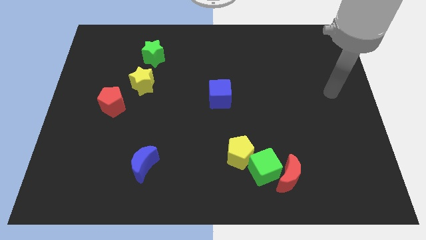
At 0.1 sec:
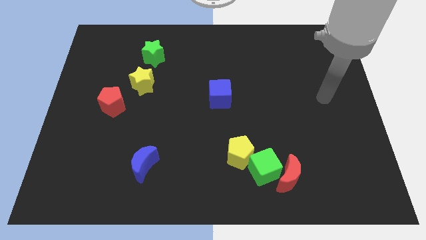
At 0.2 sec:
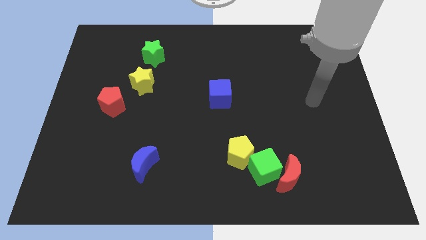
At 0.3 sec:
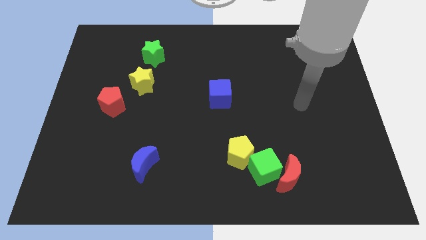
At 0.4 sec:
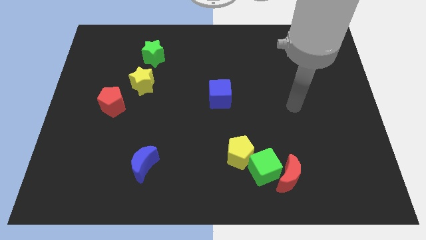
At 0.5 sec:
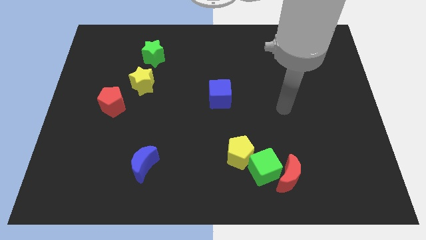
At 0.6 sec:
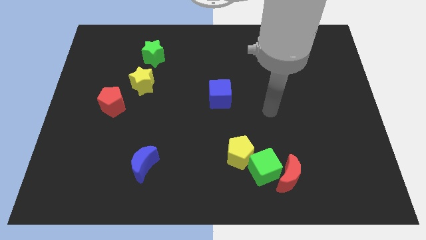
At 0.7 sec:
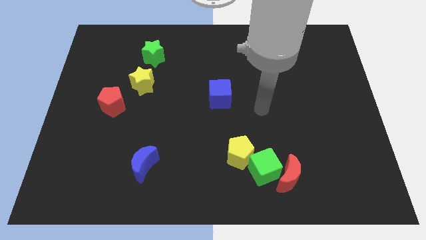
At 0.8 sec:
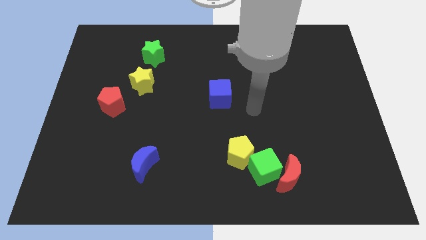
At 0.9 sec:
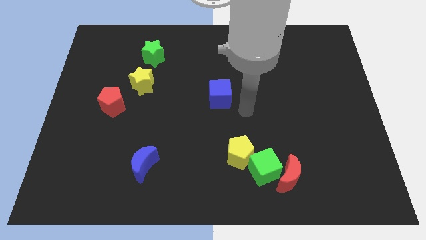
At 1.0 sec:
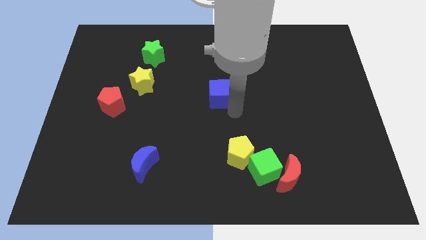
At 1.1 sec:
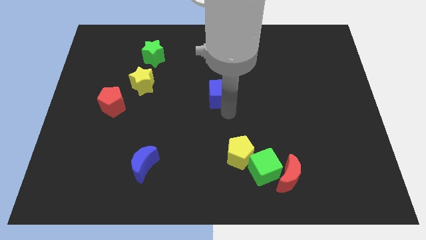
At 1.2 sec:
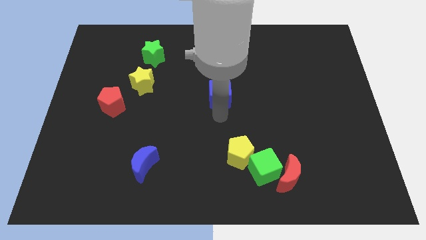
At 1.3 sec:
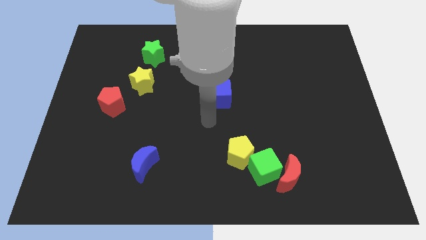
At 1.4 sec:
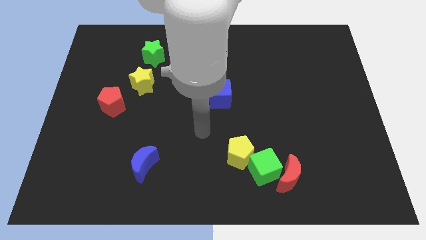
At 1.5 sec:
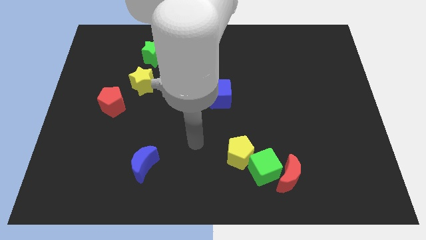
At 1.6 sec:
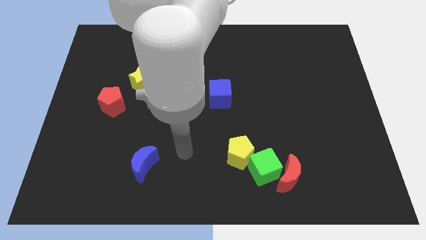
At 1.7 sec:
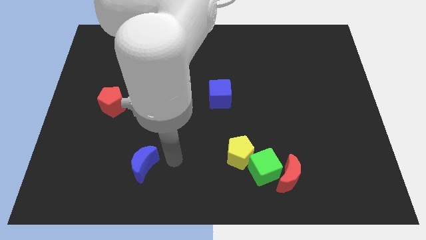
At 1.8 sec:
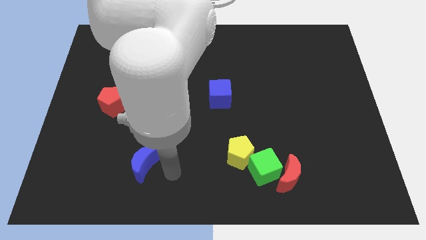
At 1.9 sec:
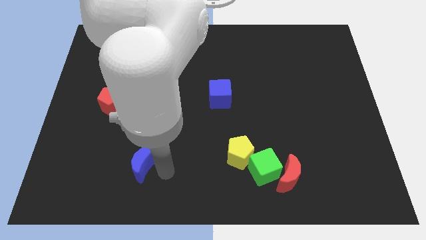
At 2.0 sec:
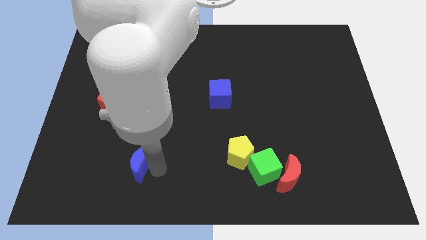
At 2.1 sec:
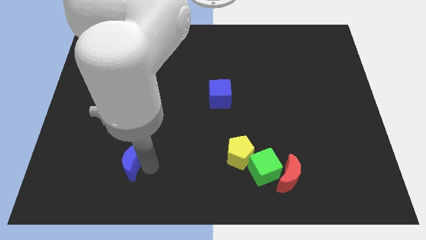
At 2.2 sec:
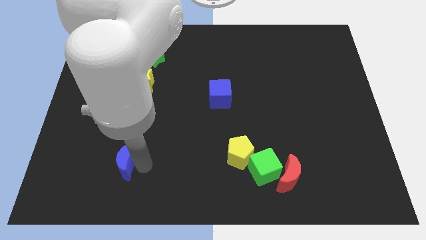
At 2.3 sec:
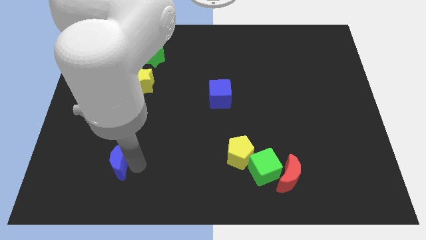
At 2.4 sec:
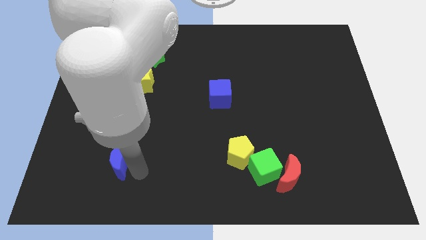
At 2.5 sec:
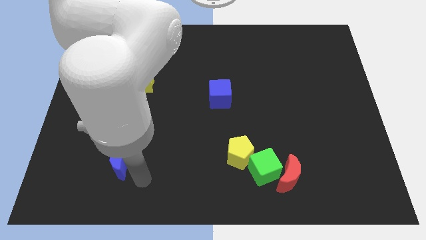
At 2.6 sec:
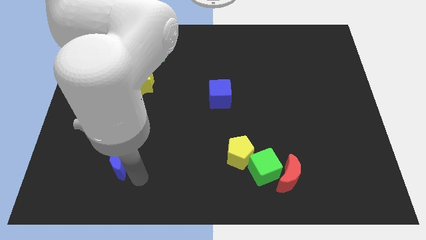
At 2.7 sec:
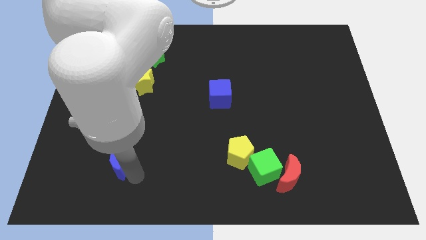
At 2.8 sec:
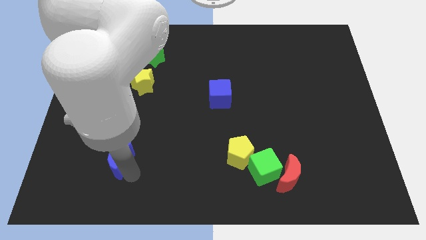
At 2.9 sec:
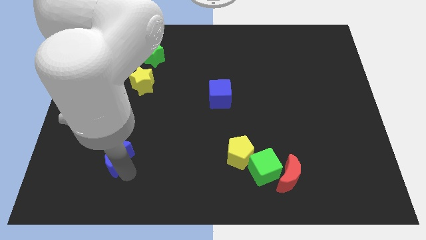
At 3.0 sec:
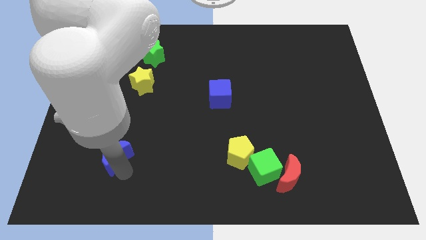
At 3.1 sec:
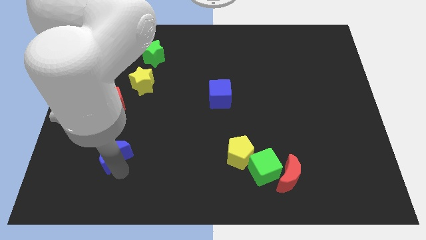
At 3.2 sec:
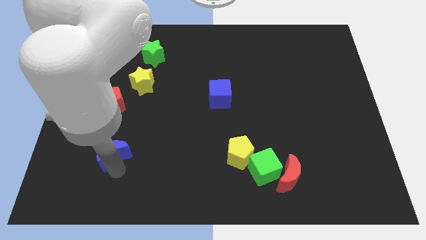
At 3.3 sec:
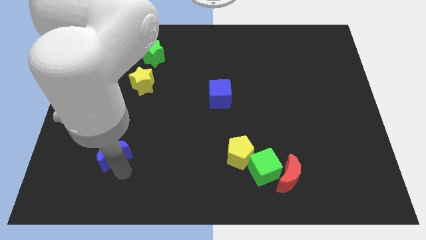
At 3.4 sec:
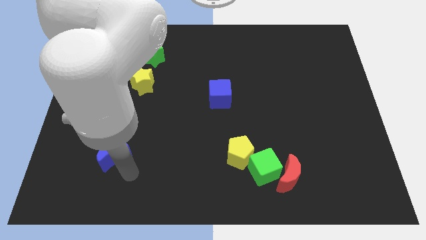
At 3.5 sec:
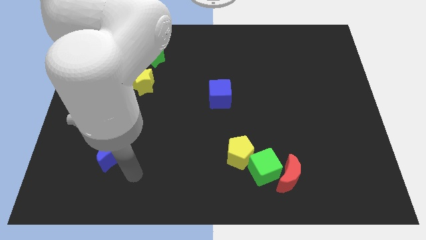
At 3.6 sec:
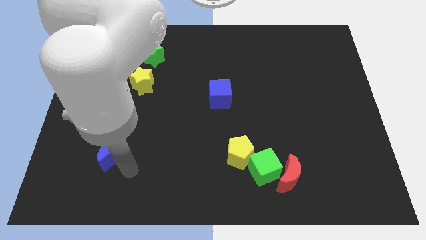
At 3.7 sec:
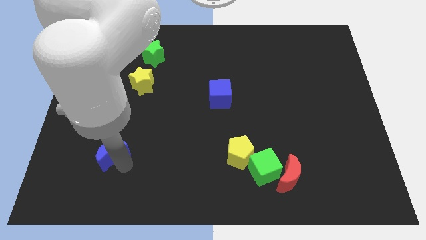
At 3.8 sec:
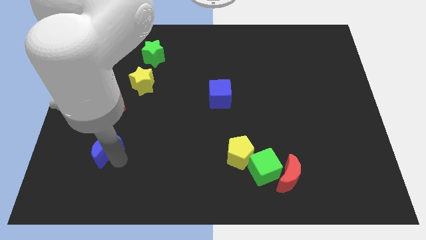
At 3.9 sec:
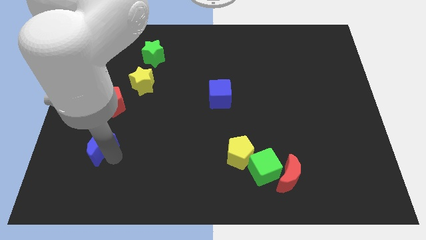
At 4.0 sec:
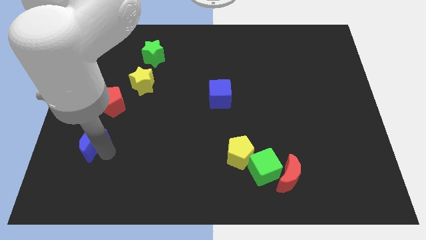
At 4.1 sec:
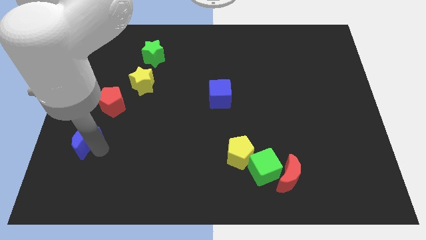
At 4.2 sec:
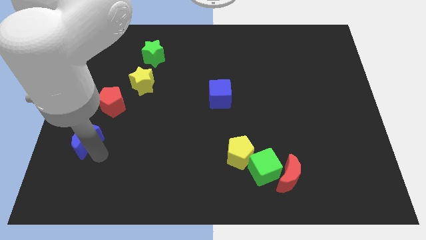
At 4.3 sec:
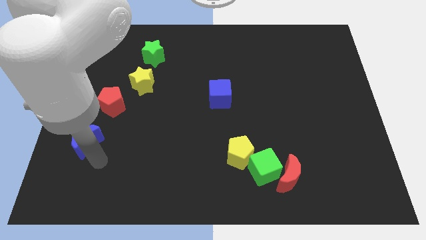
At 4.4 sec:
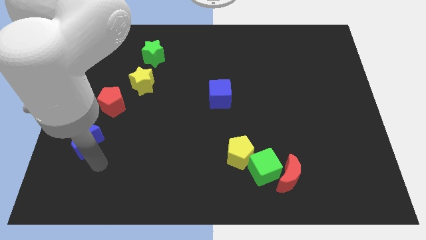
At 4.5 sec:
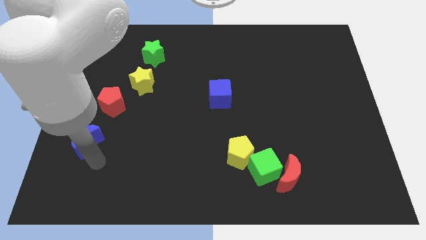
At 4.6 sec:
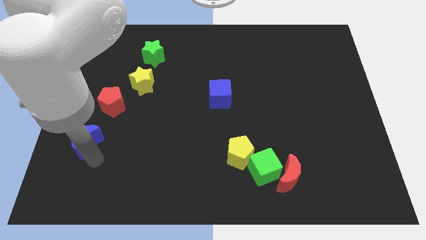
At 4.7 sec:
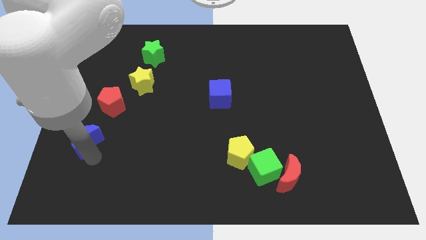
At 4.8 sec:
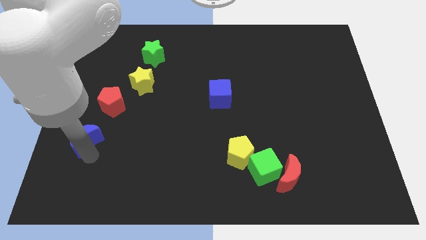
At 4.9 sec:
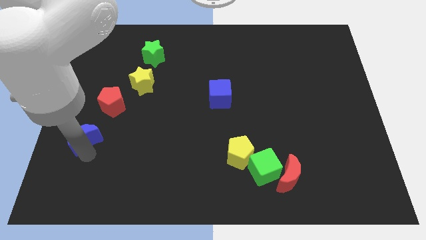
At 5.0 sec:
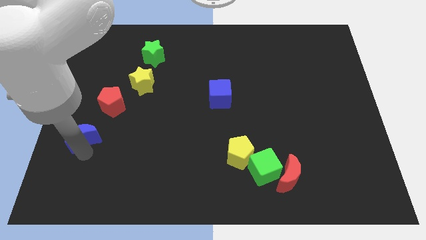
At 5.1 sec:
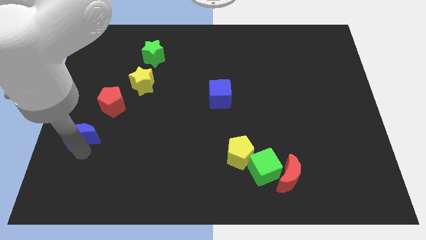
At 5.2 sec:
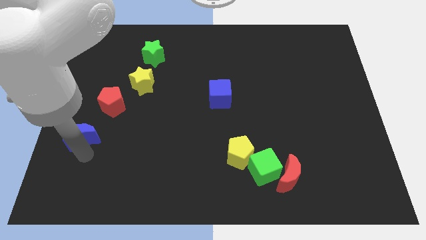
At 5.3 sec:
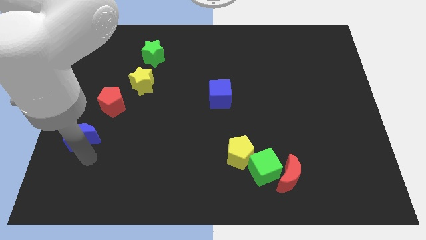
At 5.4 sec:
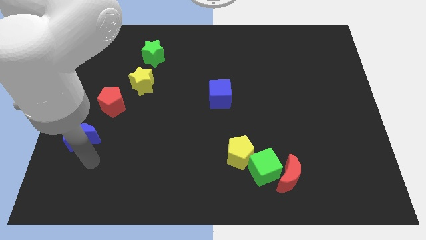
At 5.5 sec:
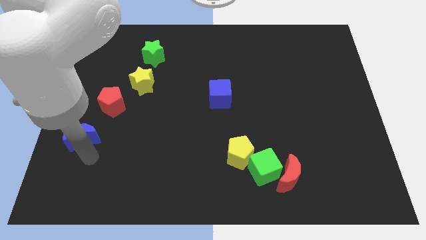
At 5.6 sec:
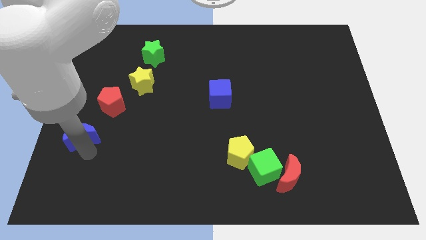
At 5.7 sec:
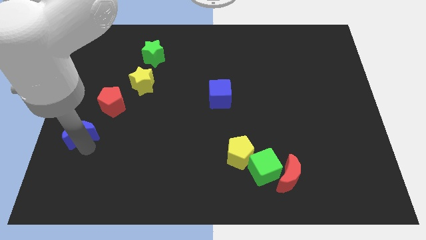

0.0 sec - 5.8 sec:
push the blue moon to the left side
